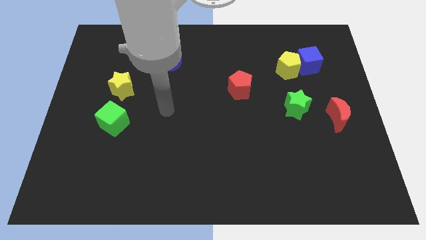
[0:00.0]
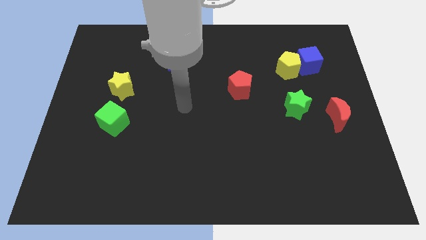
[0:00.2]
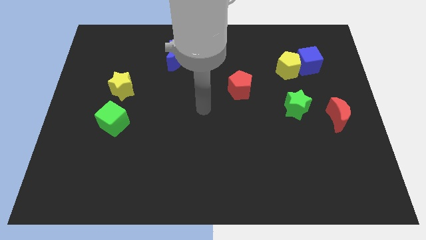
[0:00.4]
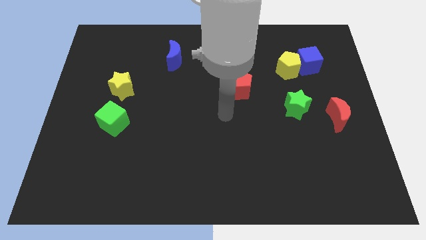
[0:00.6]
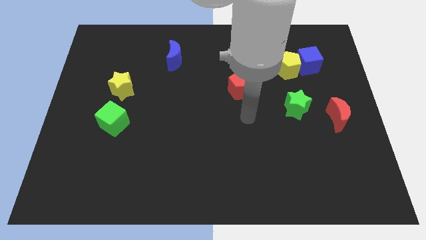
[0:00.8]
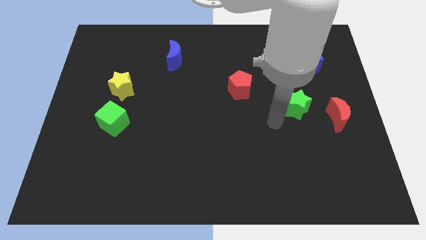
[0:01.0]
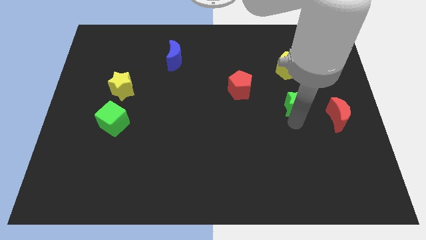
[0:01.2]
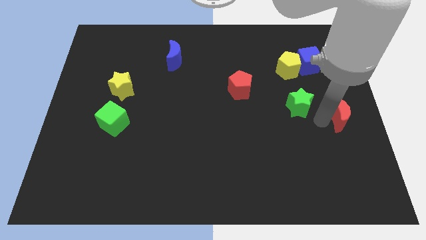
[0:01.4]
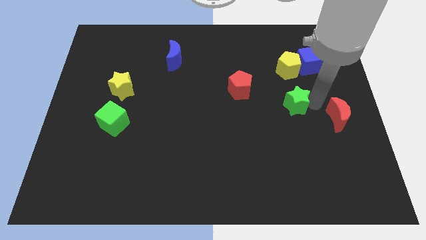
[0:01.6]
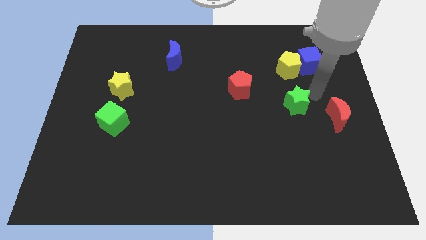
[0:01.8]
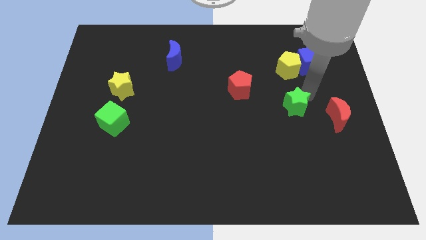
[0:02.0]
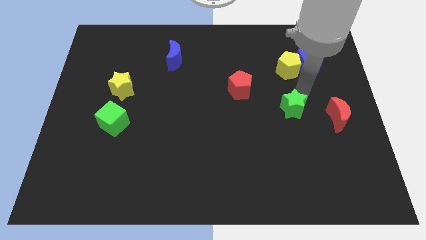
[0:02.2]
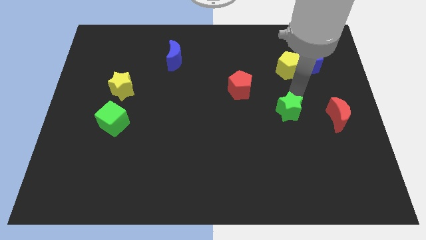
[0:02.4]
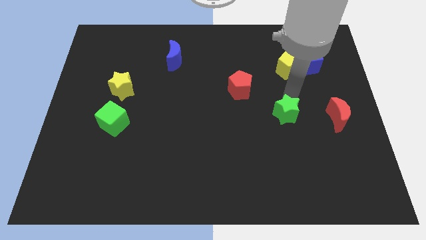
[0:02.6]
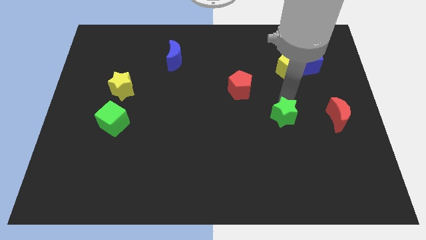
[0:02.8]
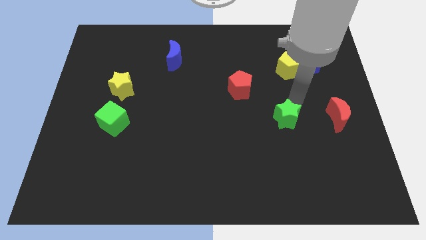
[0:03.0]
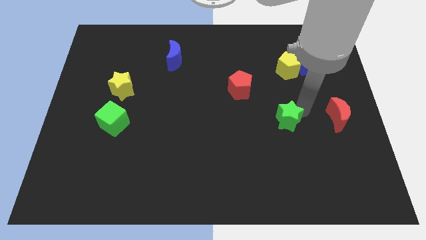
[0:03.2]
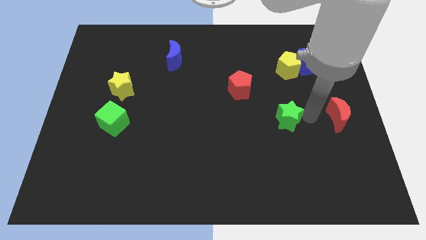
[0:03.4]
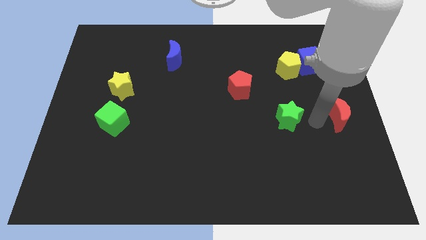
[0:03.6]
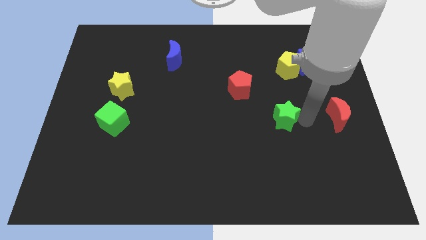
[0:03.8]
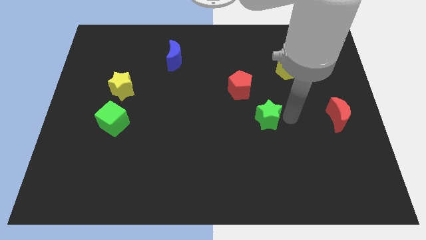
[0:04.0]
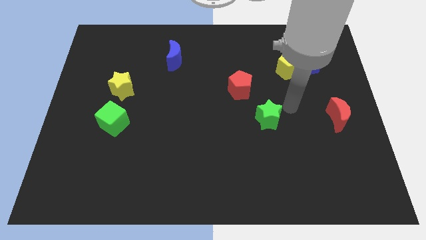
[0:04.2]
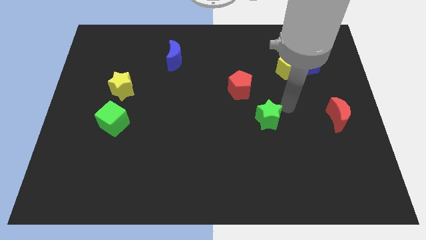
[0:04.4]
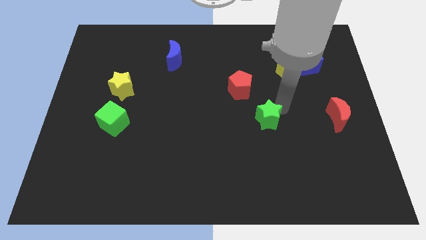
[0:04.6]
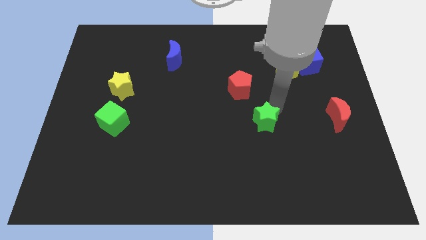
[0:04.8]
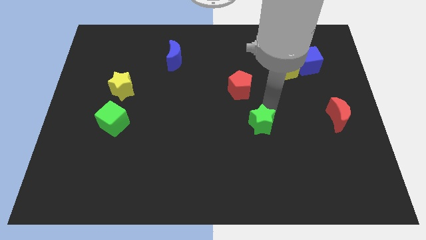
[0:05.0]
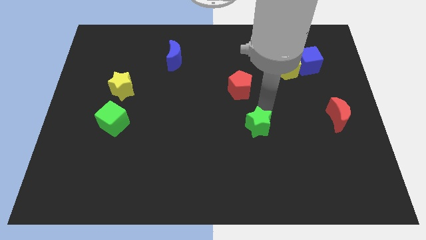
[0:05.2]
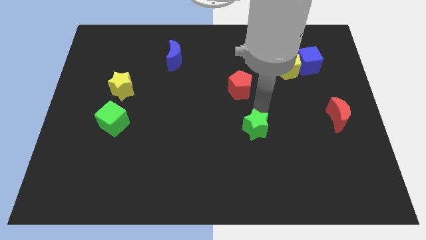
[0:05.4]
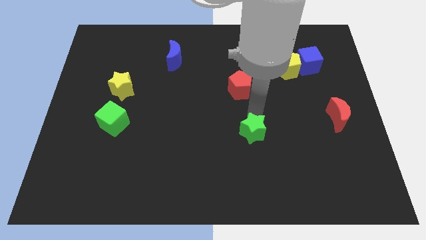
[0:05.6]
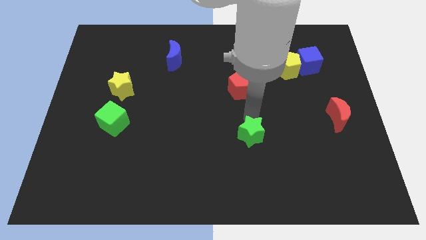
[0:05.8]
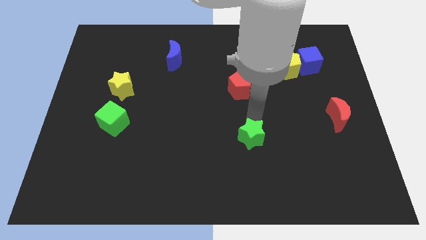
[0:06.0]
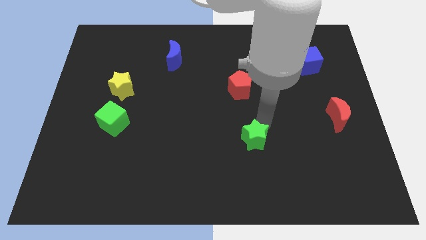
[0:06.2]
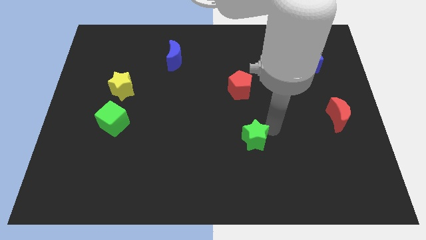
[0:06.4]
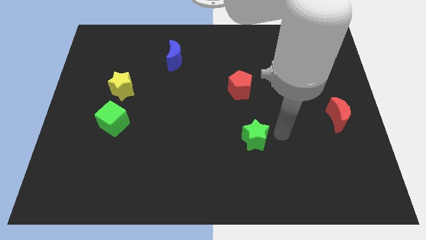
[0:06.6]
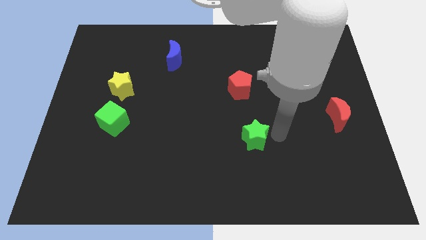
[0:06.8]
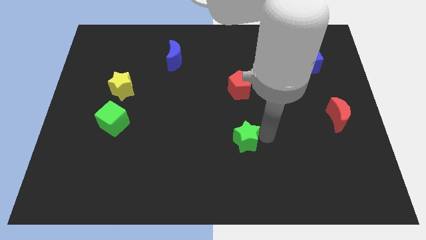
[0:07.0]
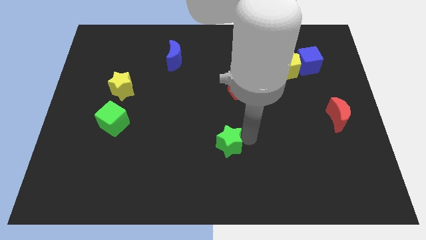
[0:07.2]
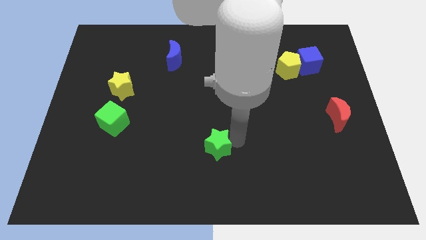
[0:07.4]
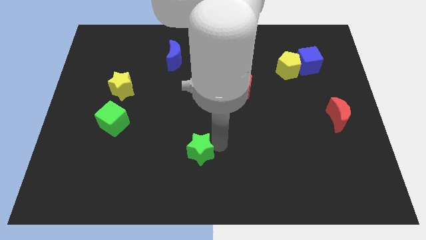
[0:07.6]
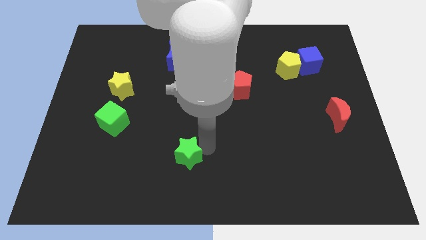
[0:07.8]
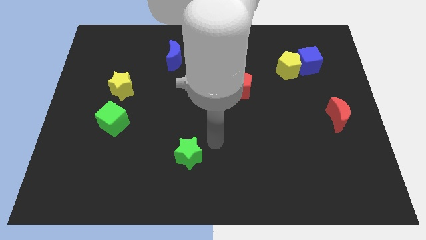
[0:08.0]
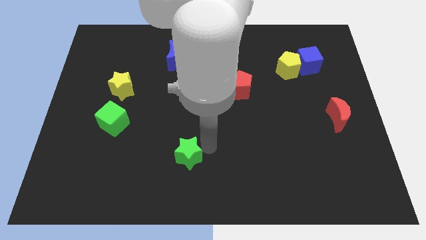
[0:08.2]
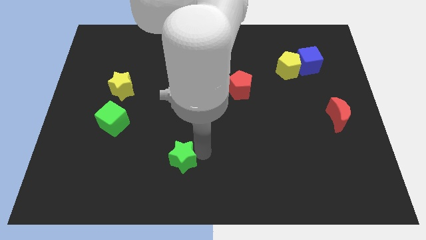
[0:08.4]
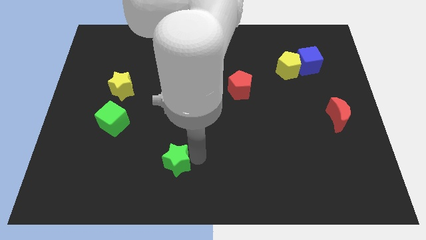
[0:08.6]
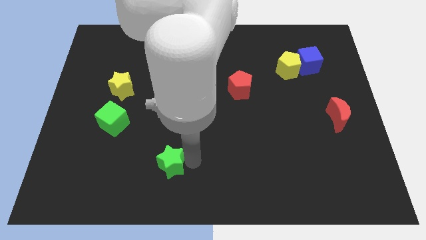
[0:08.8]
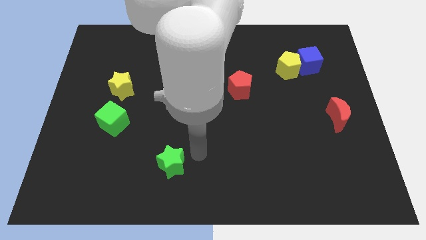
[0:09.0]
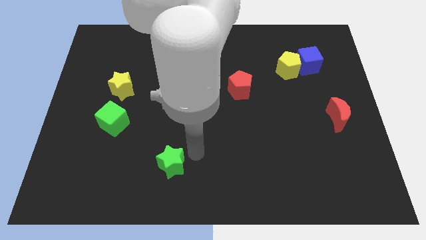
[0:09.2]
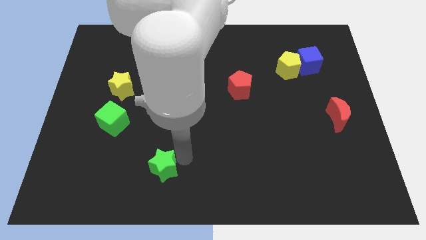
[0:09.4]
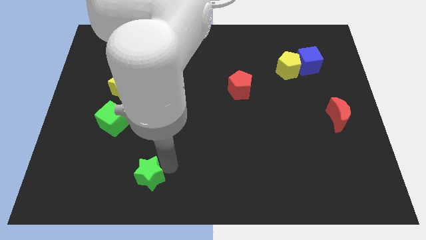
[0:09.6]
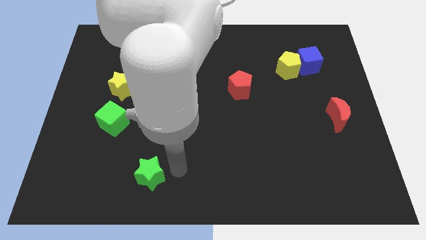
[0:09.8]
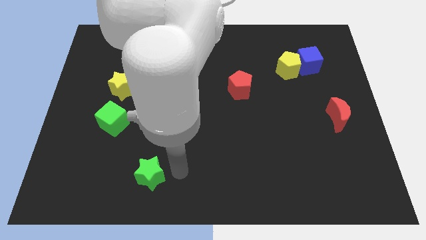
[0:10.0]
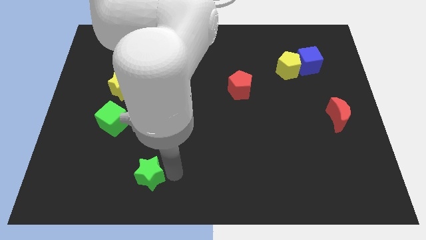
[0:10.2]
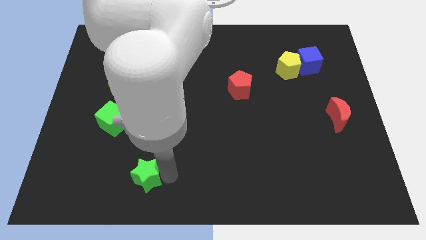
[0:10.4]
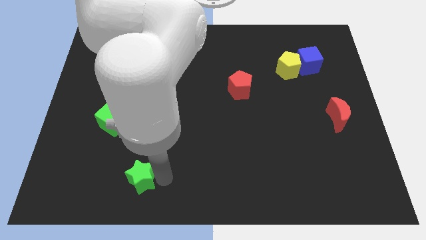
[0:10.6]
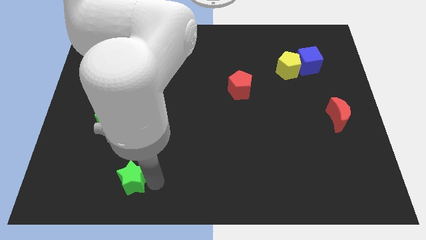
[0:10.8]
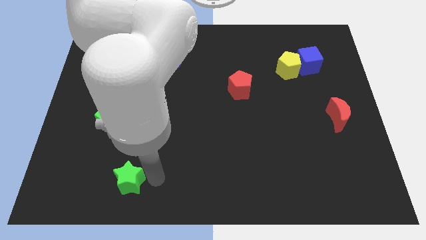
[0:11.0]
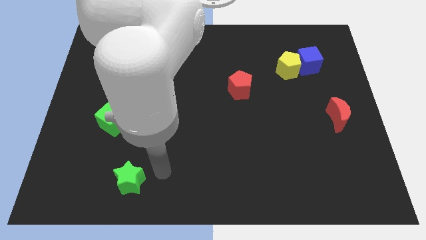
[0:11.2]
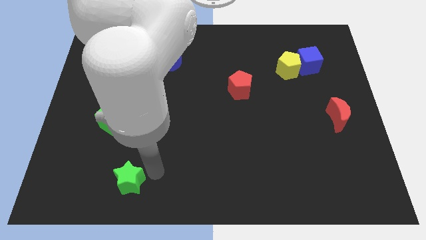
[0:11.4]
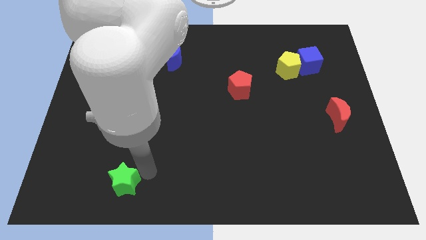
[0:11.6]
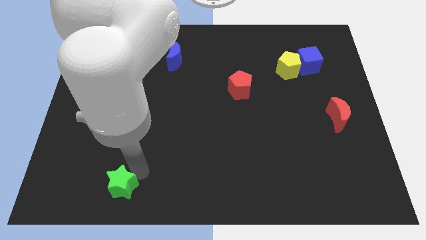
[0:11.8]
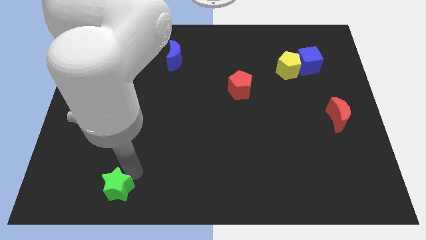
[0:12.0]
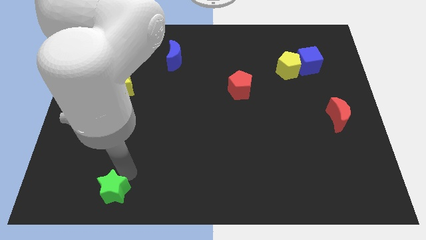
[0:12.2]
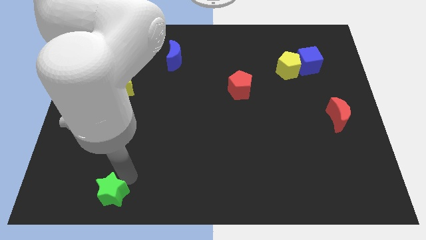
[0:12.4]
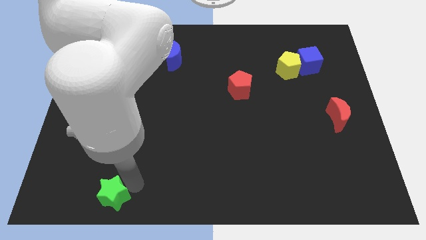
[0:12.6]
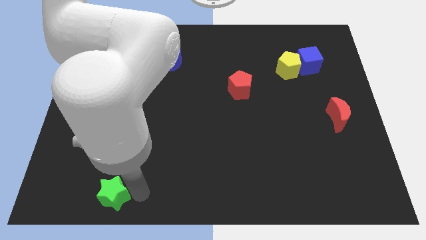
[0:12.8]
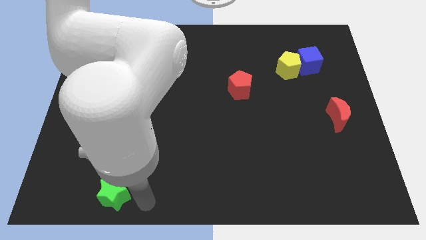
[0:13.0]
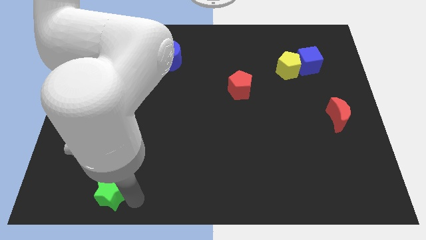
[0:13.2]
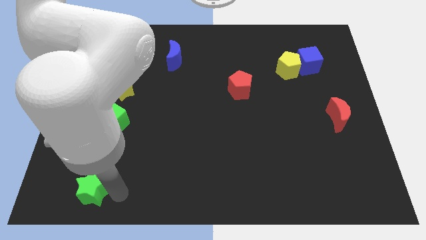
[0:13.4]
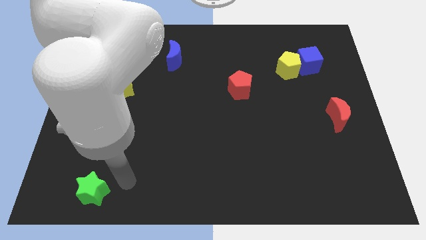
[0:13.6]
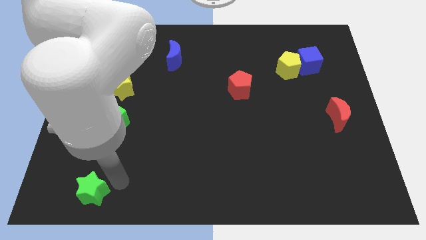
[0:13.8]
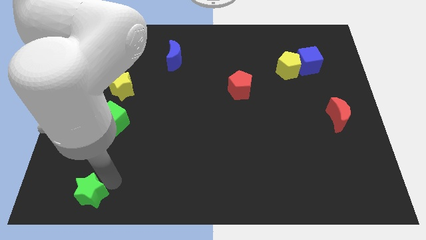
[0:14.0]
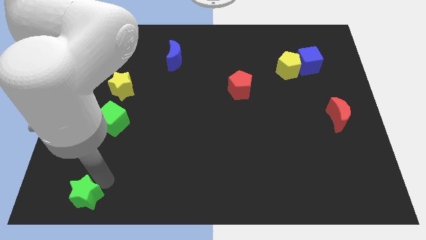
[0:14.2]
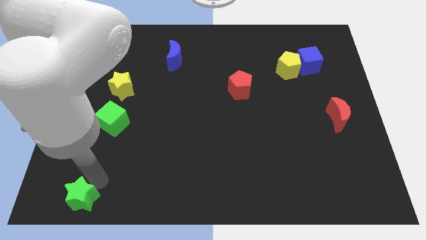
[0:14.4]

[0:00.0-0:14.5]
move the green star to the bottom left
